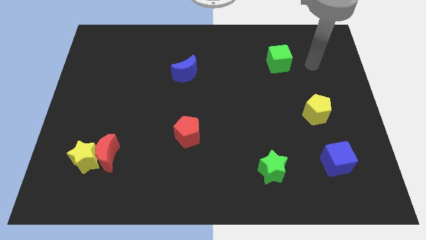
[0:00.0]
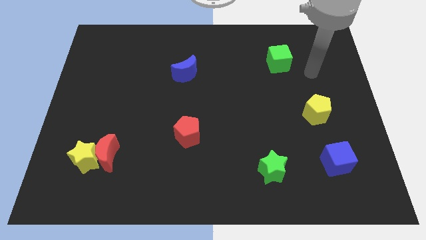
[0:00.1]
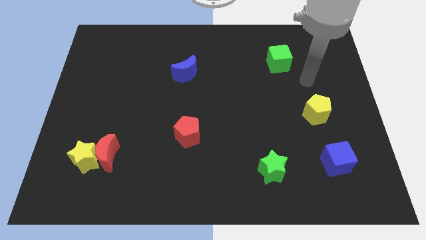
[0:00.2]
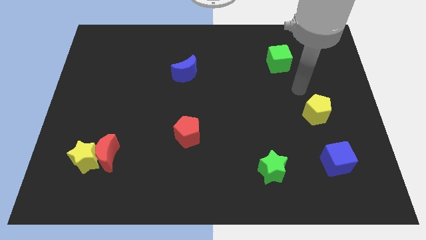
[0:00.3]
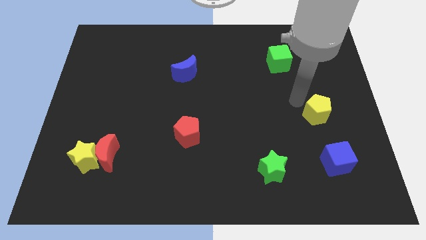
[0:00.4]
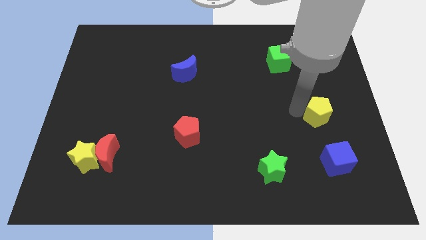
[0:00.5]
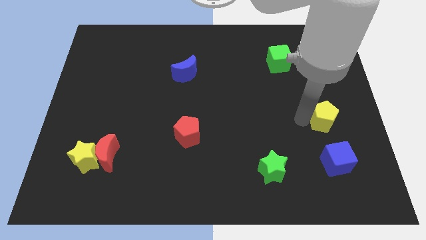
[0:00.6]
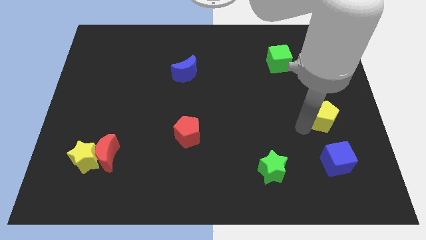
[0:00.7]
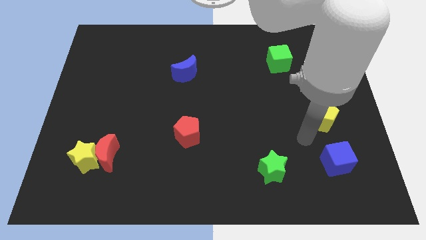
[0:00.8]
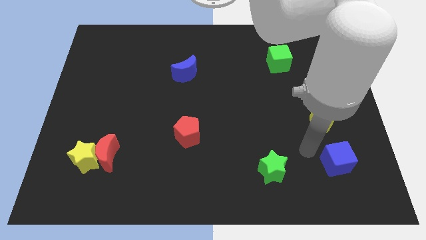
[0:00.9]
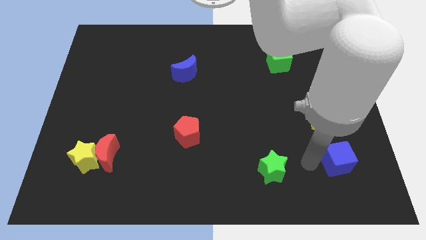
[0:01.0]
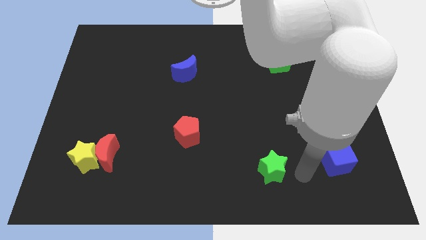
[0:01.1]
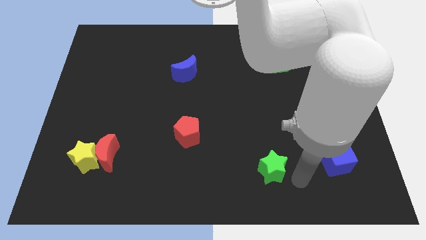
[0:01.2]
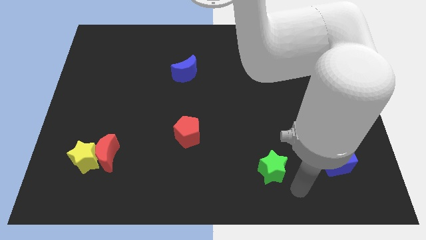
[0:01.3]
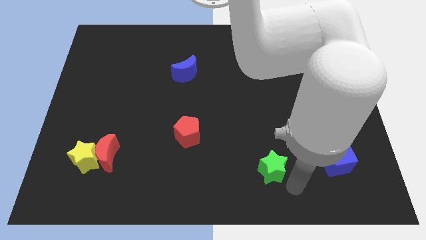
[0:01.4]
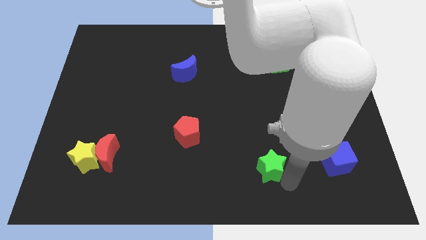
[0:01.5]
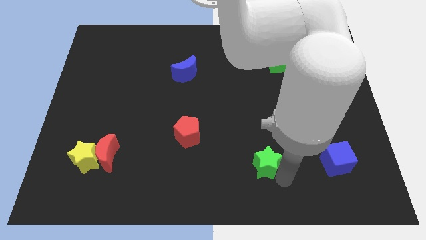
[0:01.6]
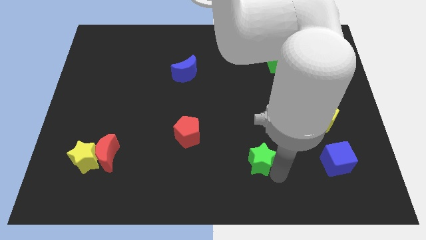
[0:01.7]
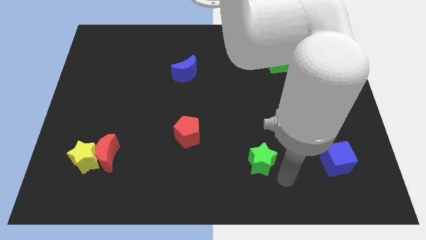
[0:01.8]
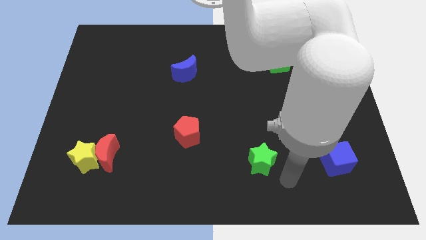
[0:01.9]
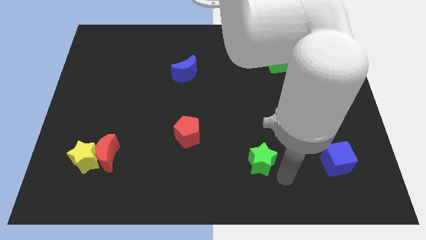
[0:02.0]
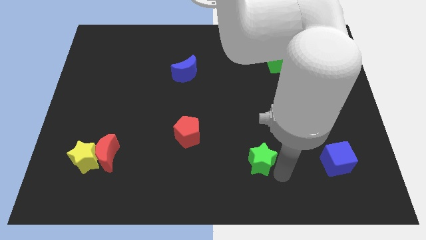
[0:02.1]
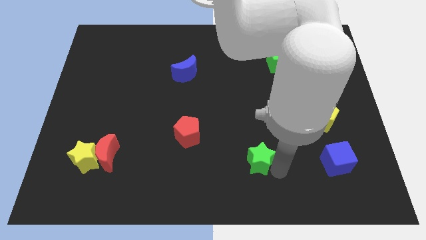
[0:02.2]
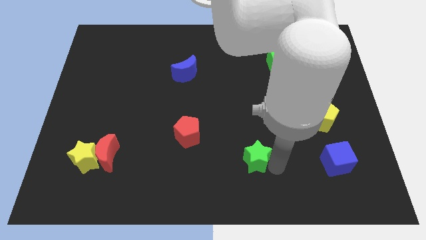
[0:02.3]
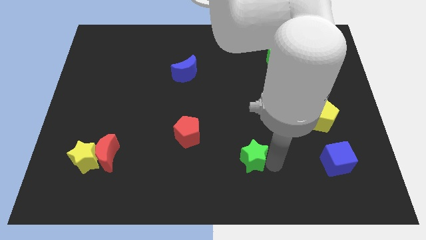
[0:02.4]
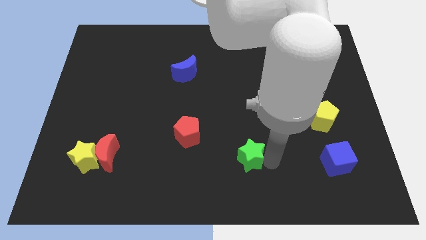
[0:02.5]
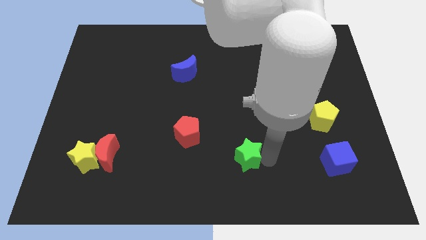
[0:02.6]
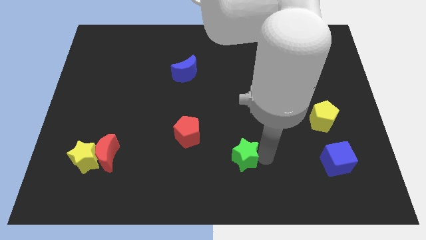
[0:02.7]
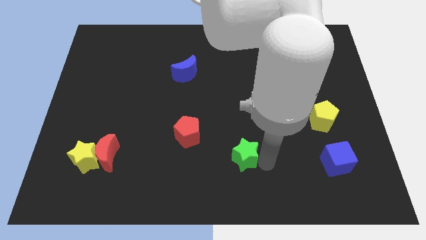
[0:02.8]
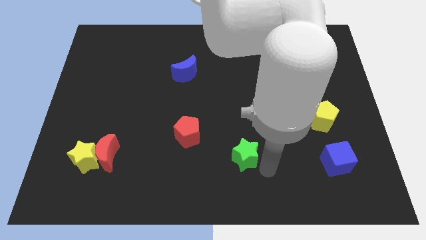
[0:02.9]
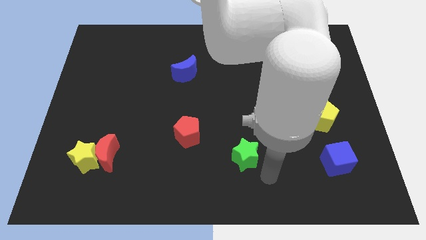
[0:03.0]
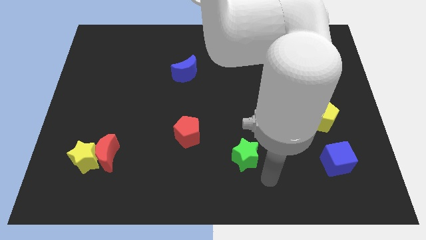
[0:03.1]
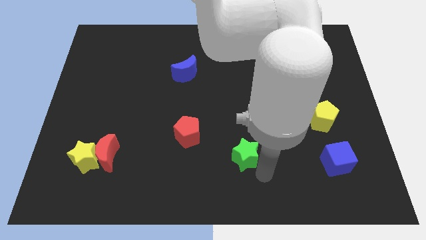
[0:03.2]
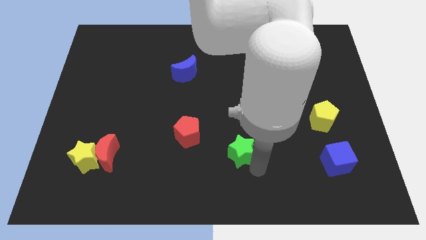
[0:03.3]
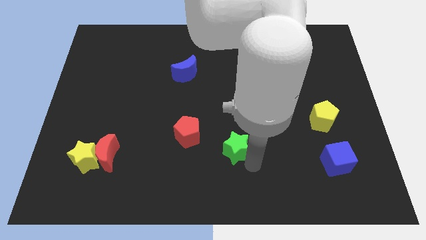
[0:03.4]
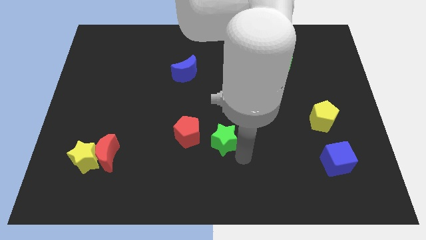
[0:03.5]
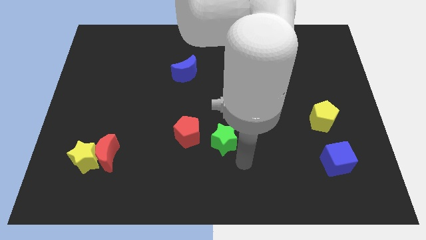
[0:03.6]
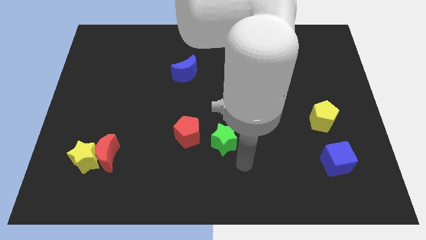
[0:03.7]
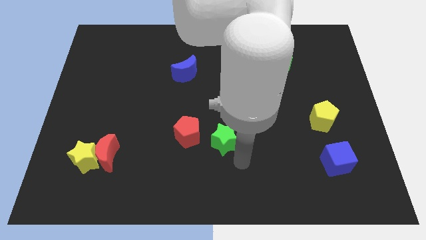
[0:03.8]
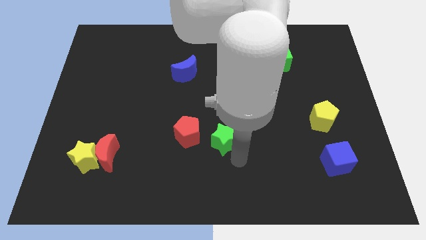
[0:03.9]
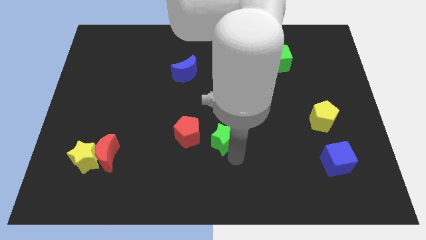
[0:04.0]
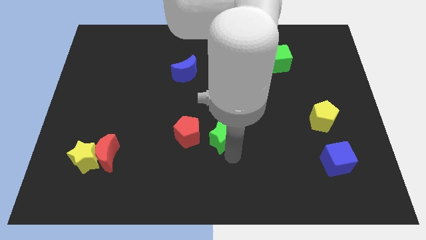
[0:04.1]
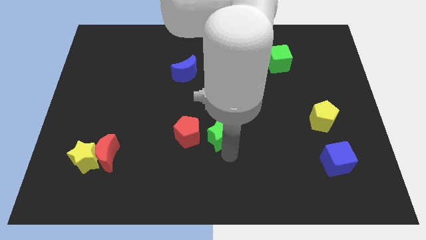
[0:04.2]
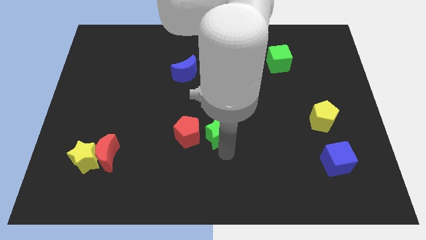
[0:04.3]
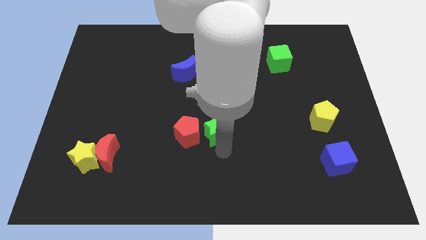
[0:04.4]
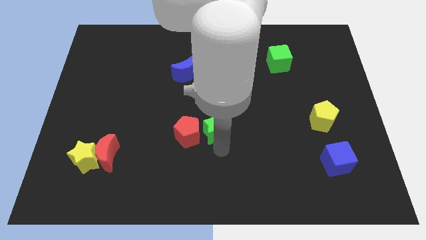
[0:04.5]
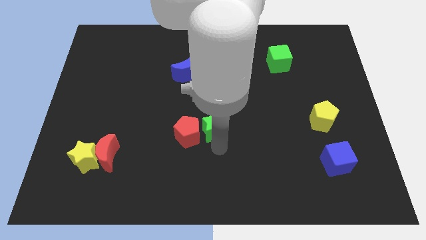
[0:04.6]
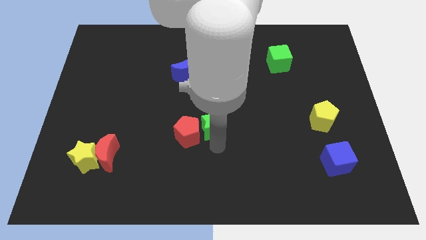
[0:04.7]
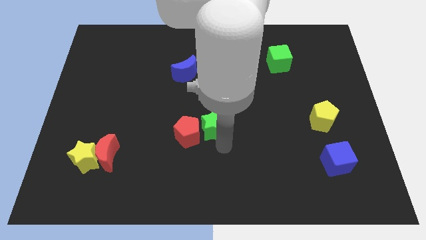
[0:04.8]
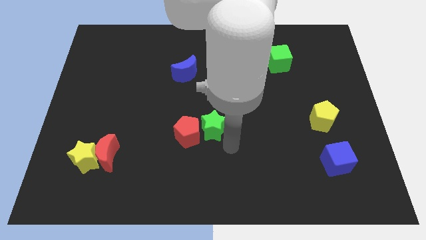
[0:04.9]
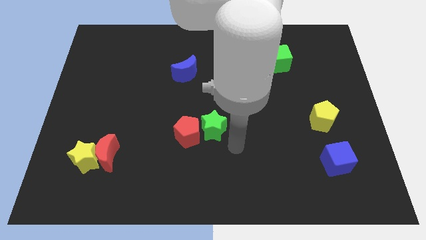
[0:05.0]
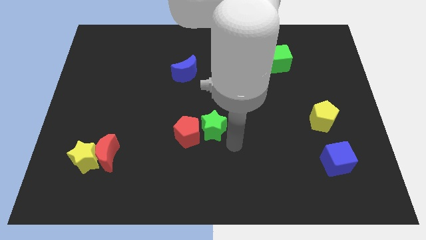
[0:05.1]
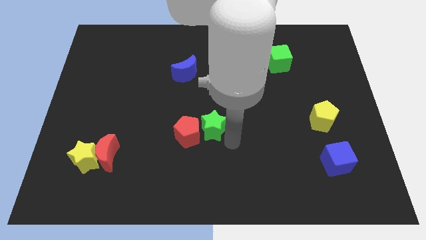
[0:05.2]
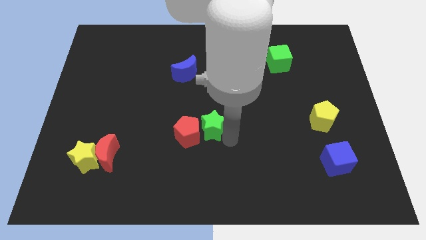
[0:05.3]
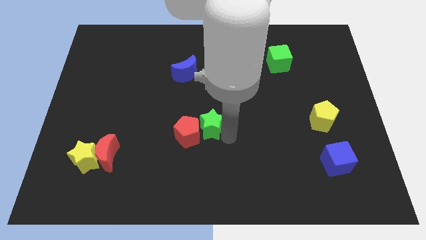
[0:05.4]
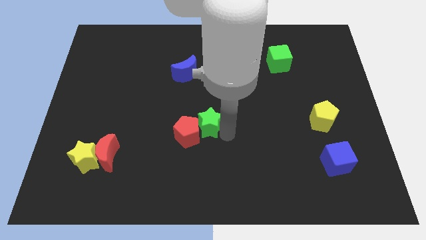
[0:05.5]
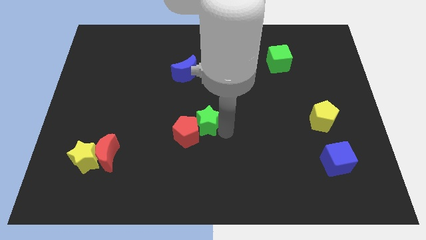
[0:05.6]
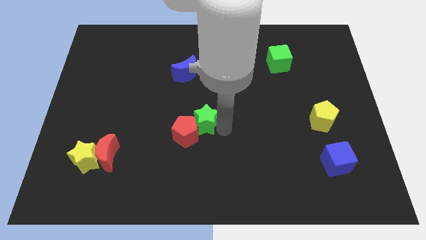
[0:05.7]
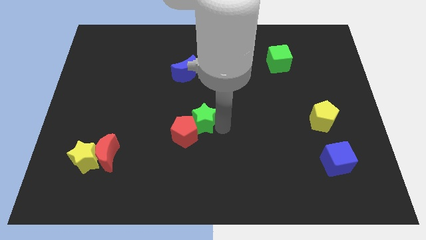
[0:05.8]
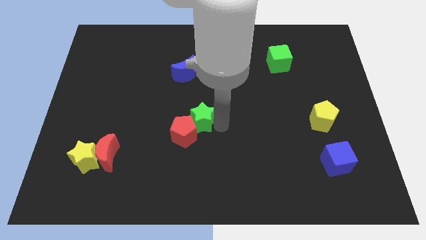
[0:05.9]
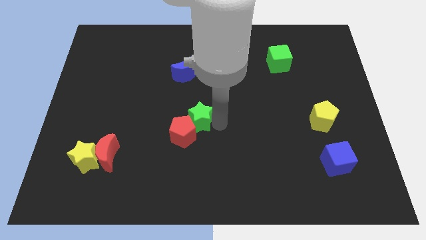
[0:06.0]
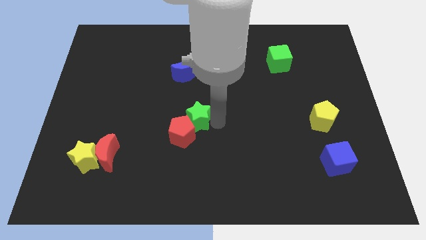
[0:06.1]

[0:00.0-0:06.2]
slide the green star up and to the left diagonally

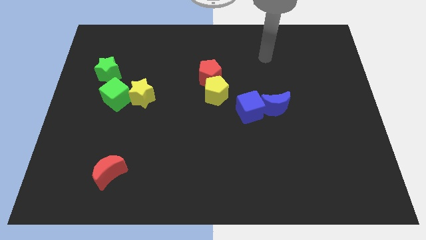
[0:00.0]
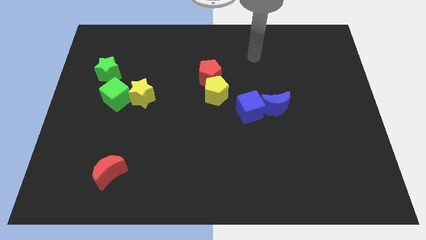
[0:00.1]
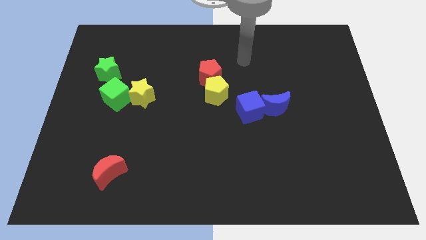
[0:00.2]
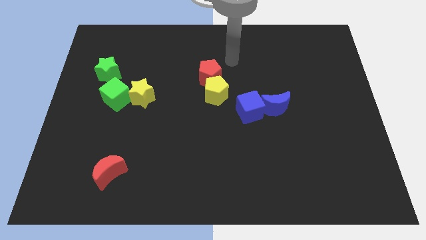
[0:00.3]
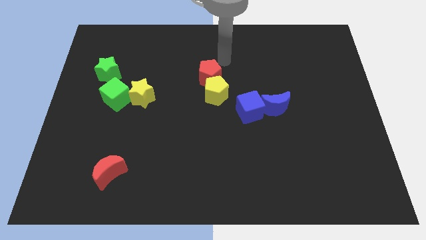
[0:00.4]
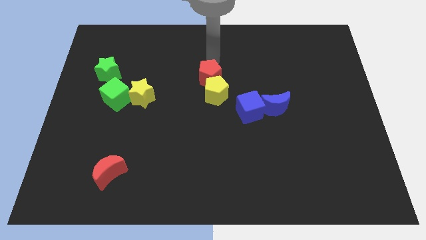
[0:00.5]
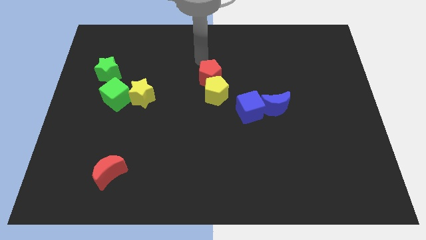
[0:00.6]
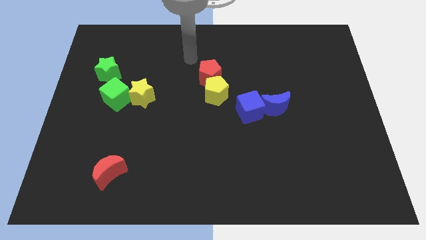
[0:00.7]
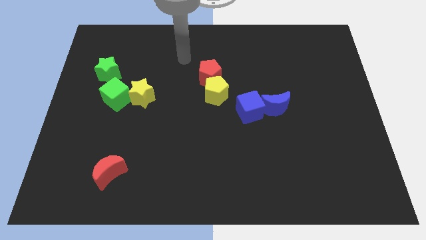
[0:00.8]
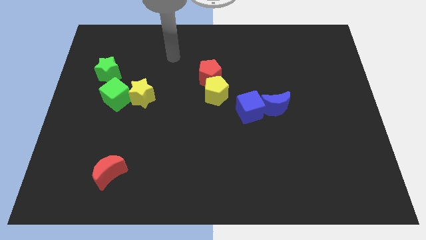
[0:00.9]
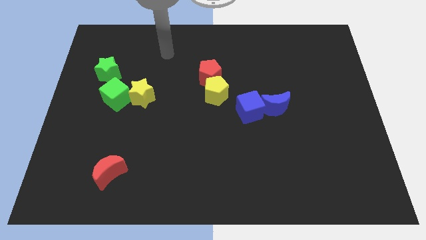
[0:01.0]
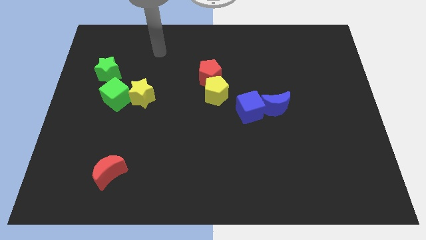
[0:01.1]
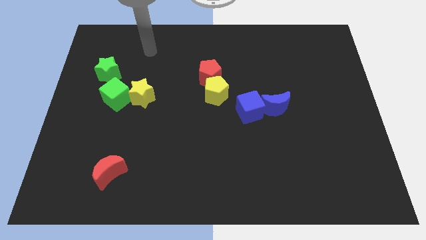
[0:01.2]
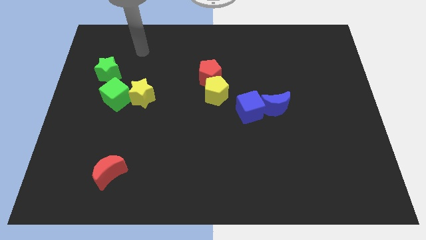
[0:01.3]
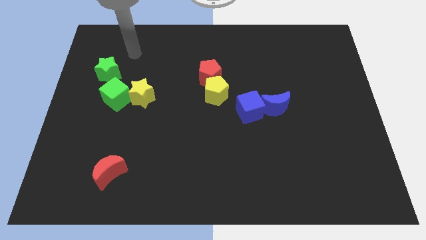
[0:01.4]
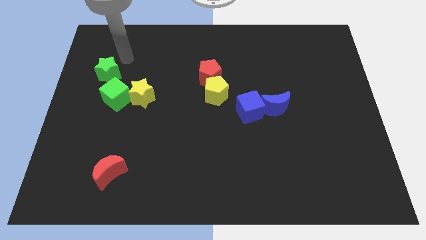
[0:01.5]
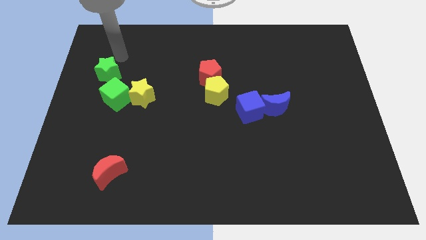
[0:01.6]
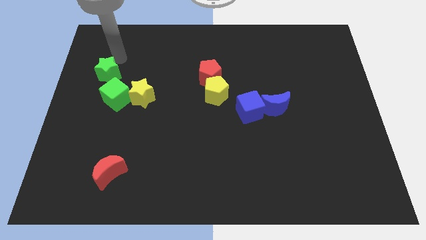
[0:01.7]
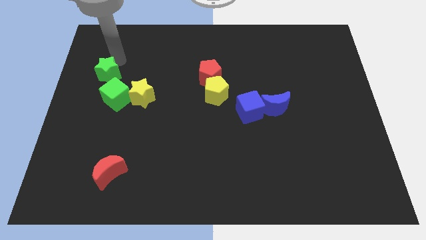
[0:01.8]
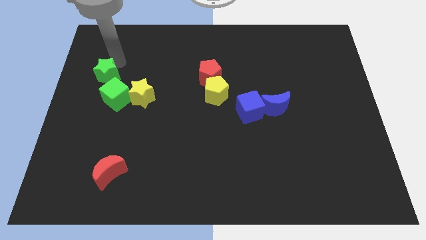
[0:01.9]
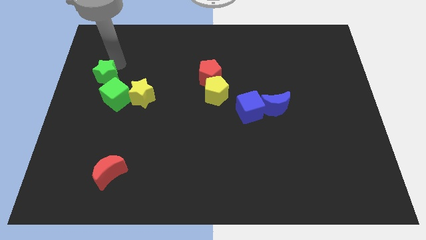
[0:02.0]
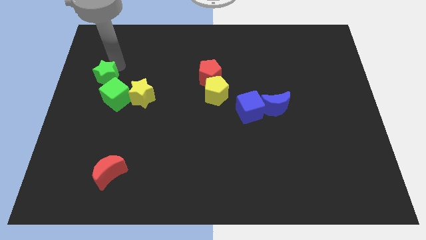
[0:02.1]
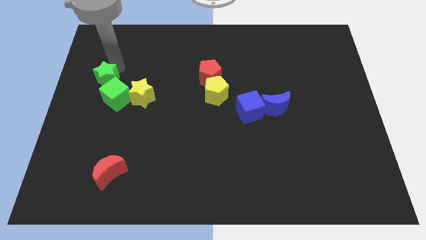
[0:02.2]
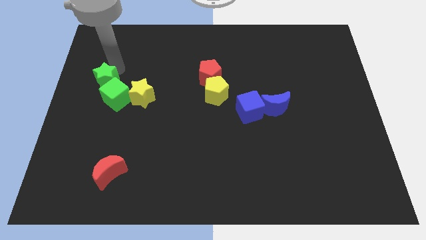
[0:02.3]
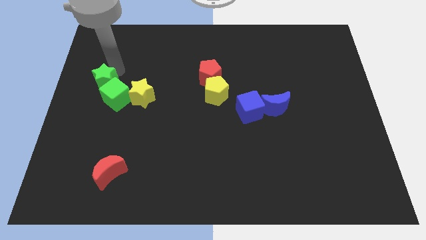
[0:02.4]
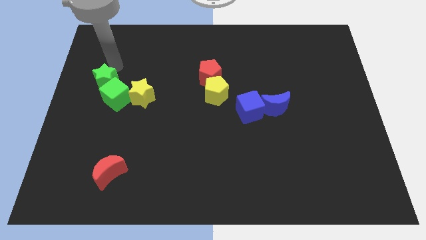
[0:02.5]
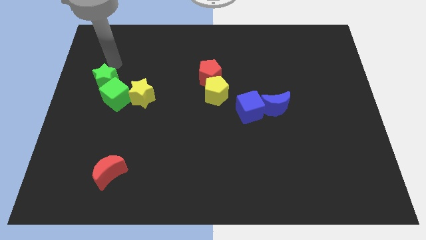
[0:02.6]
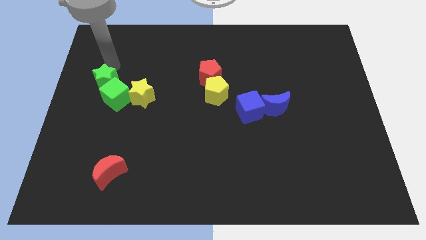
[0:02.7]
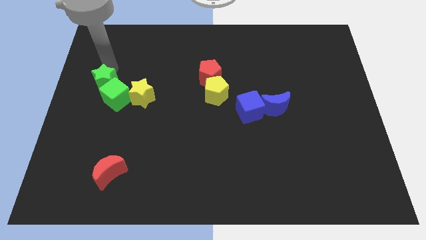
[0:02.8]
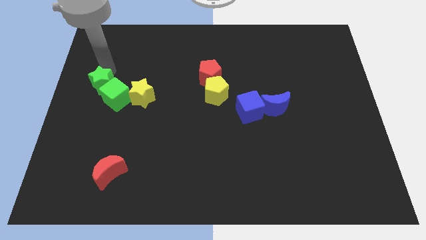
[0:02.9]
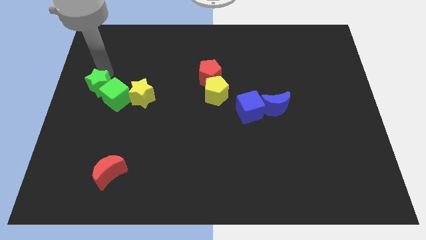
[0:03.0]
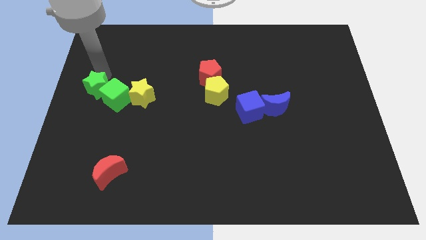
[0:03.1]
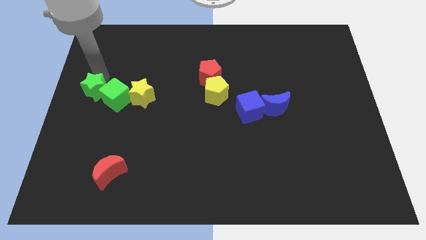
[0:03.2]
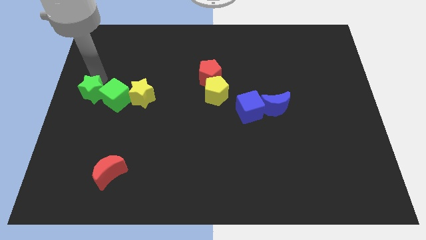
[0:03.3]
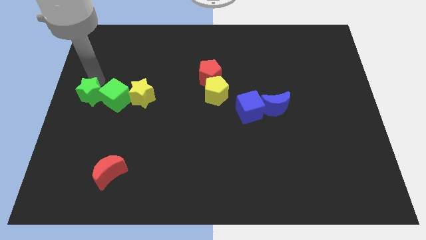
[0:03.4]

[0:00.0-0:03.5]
push the green star downwards a little bit
